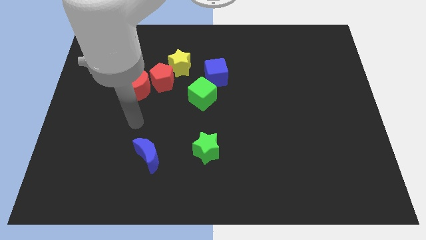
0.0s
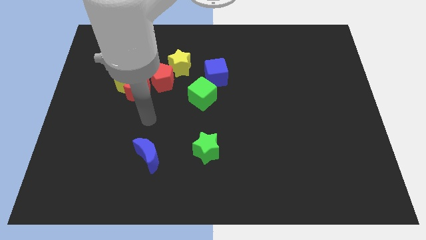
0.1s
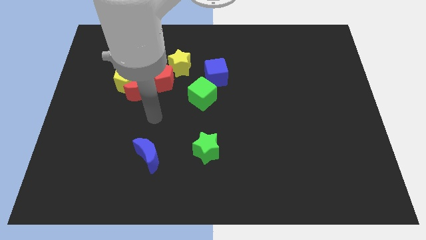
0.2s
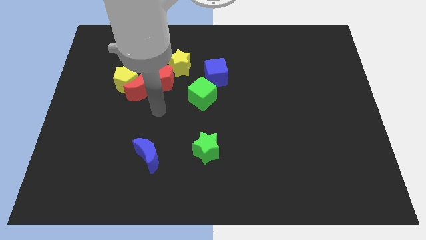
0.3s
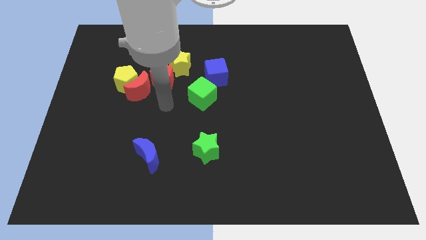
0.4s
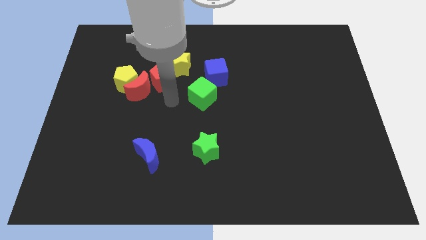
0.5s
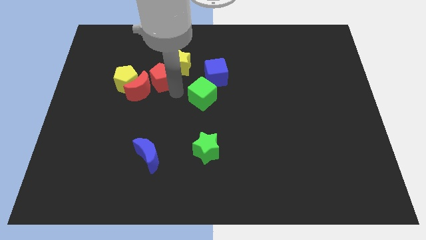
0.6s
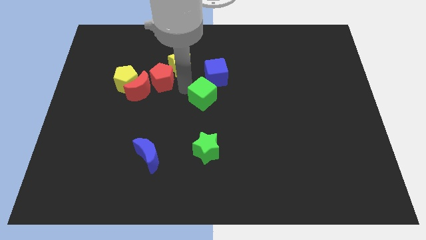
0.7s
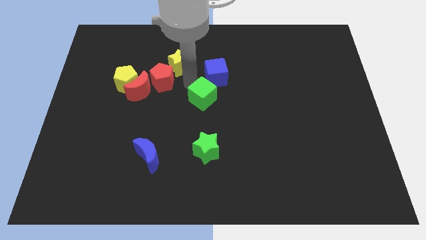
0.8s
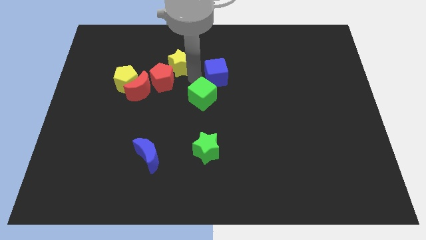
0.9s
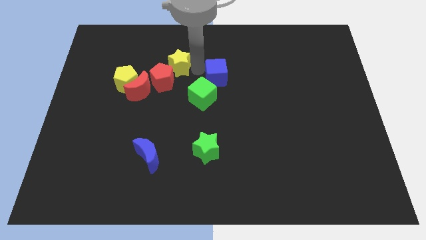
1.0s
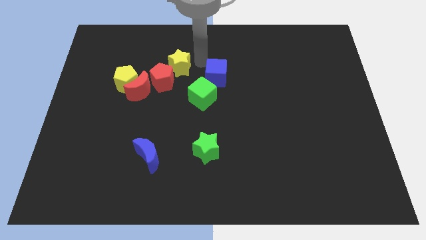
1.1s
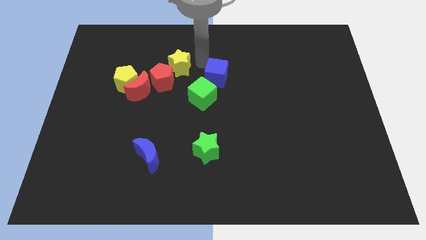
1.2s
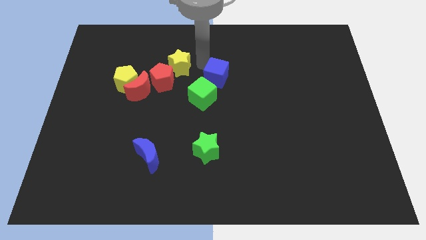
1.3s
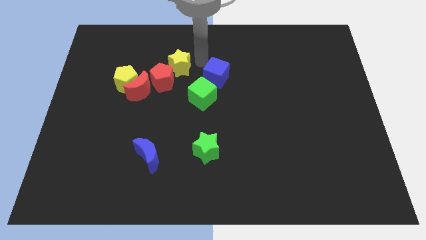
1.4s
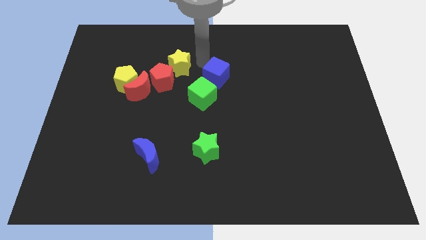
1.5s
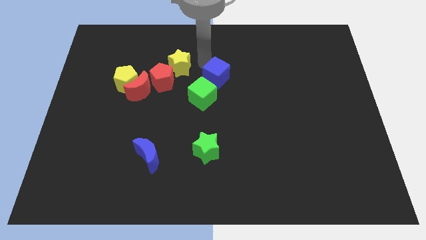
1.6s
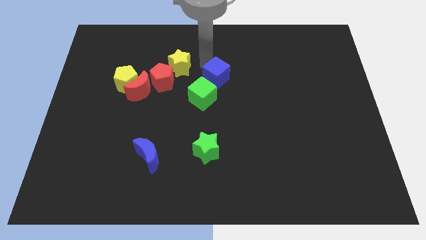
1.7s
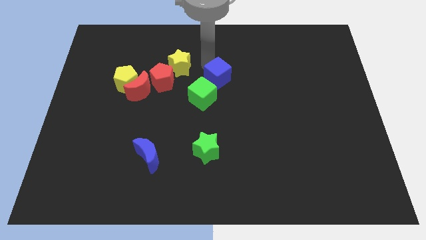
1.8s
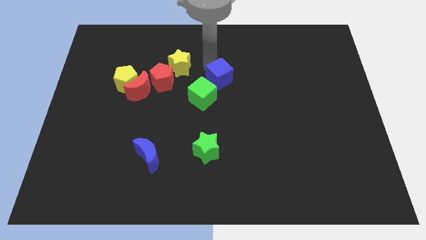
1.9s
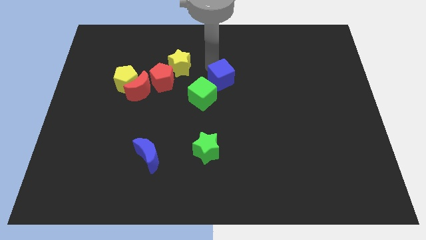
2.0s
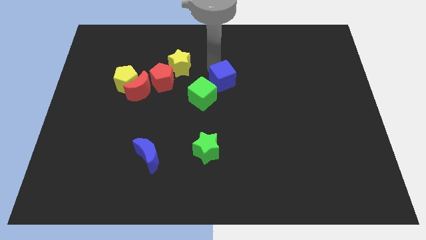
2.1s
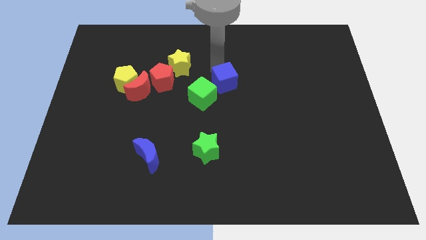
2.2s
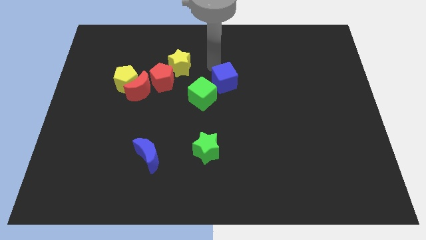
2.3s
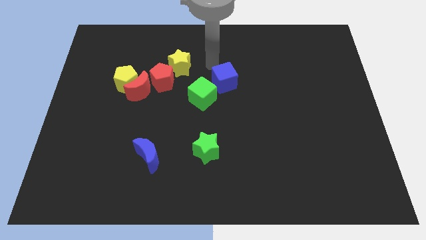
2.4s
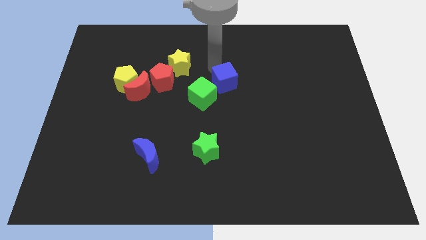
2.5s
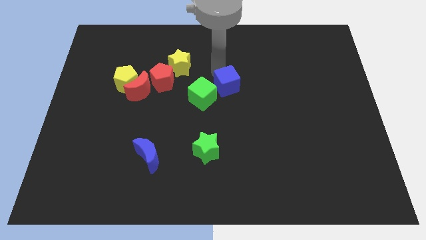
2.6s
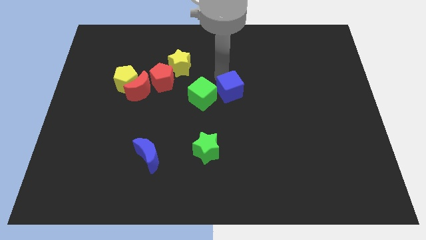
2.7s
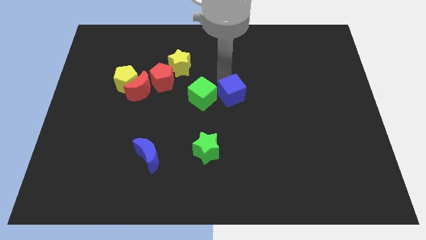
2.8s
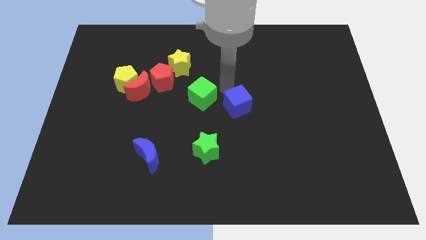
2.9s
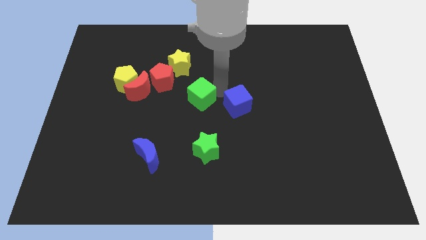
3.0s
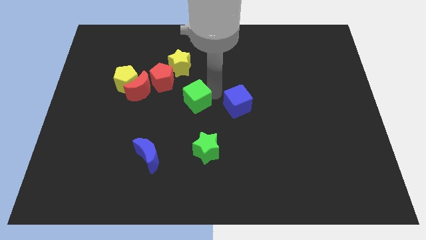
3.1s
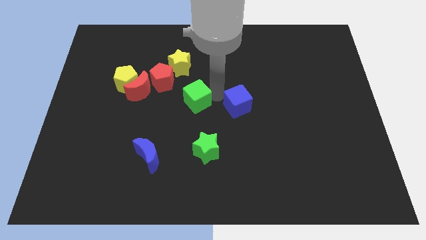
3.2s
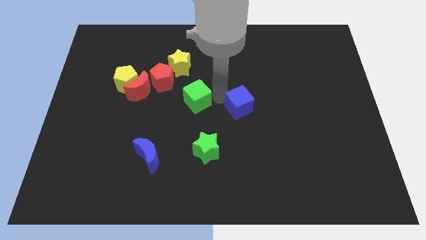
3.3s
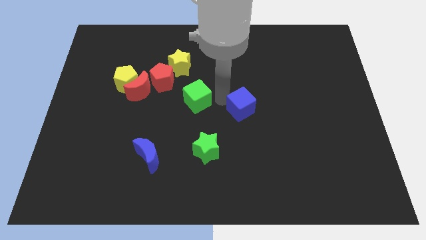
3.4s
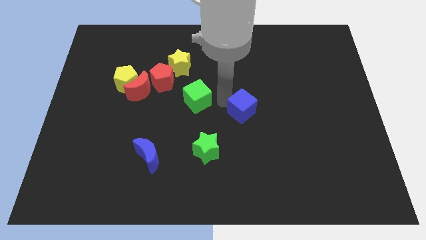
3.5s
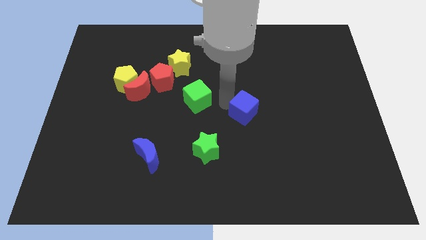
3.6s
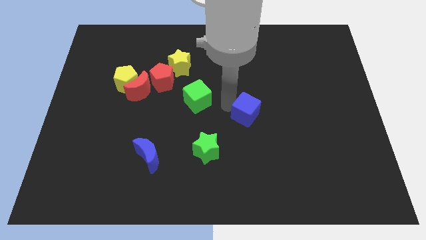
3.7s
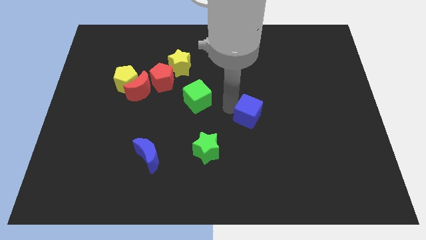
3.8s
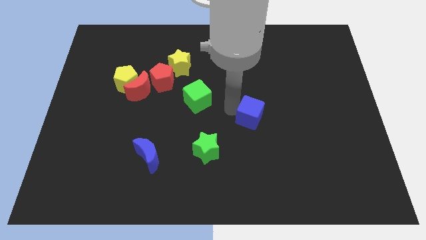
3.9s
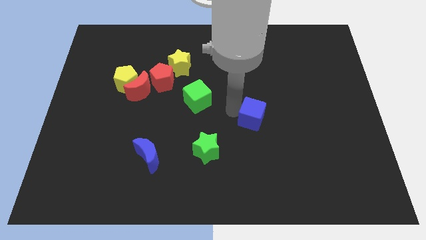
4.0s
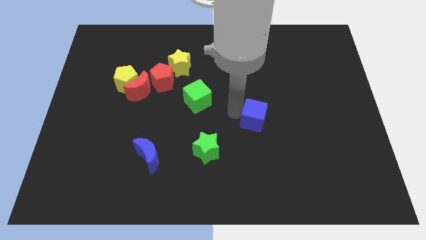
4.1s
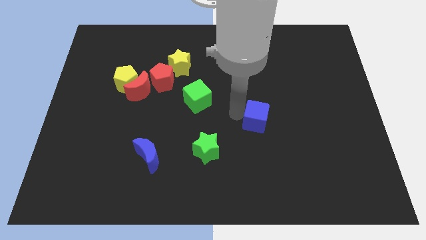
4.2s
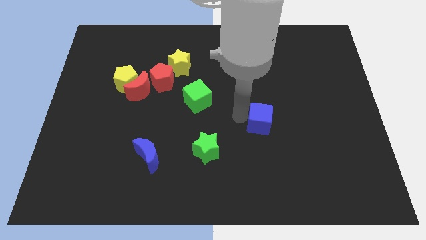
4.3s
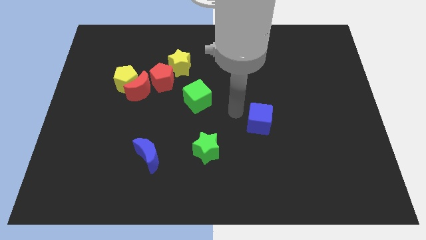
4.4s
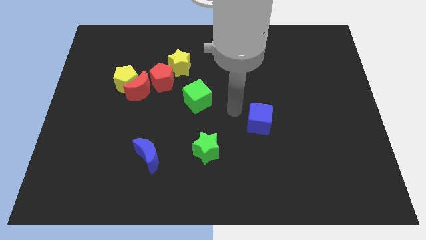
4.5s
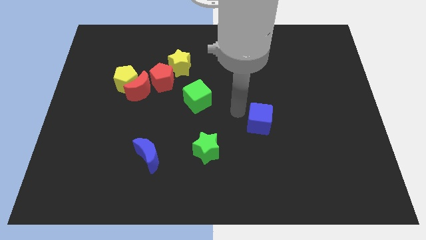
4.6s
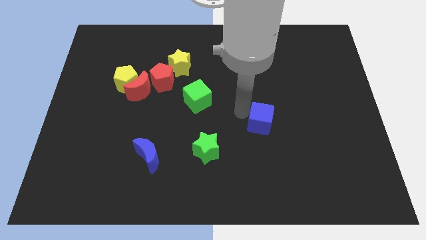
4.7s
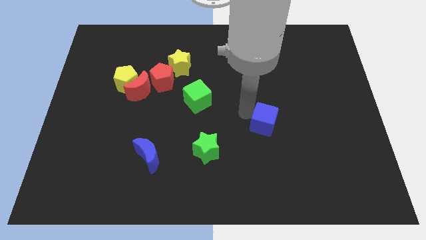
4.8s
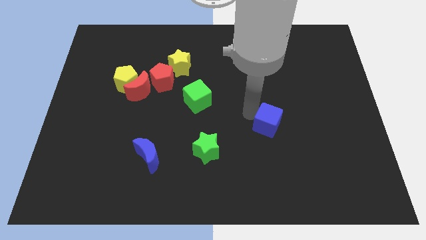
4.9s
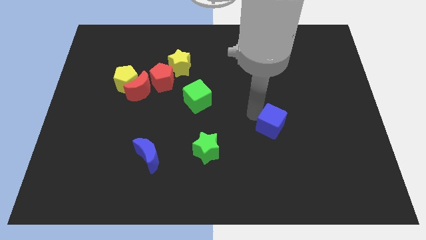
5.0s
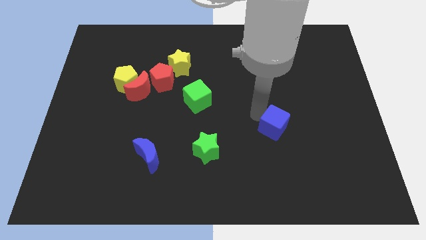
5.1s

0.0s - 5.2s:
move the blue cube downwards and then to the right

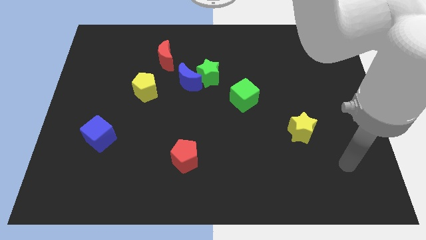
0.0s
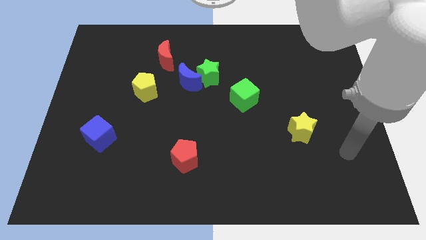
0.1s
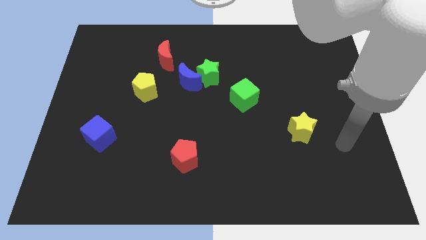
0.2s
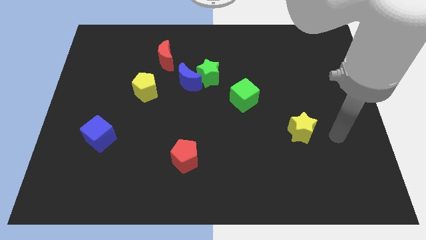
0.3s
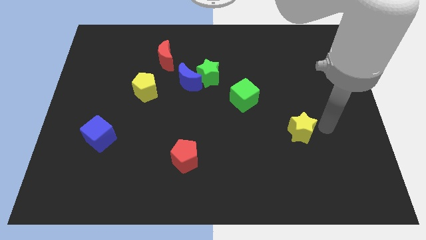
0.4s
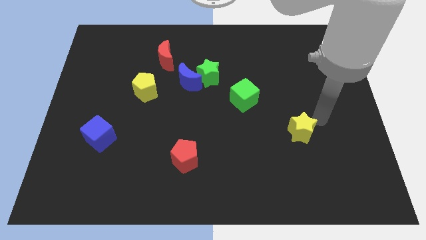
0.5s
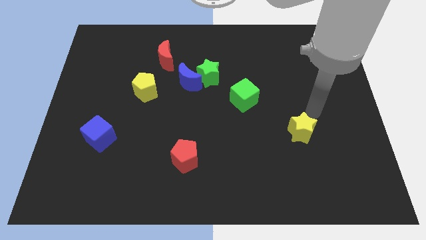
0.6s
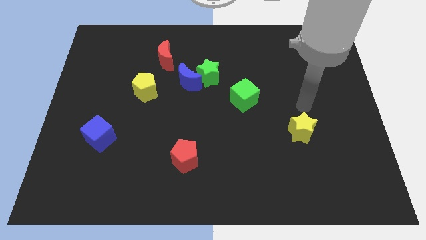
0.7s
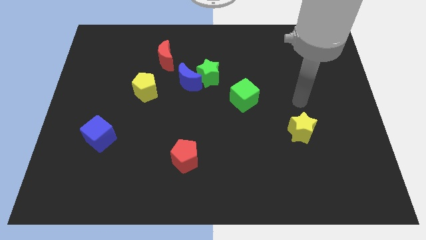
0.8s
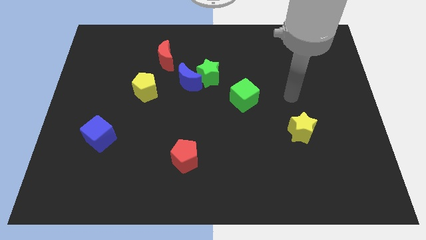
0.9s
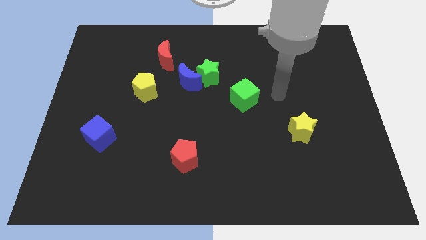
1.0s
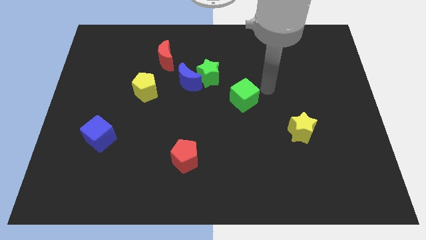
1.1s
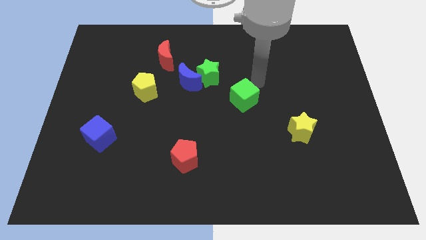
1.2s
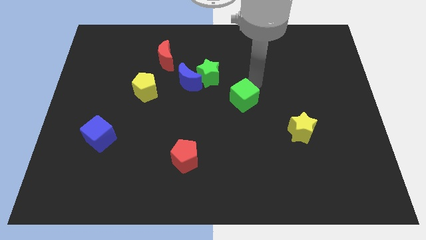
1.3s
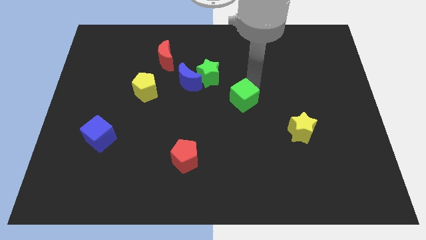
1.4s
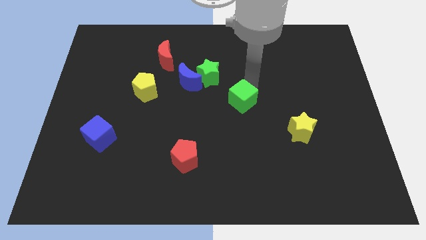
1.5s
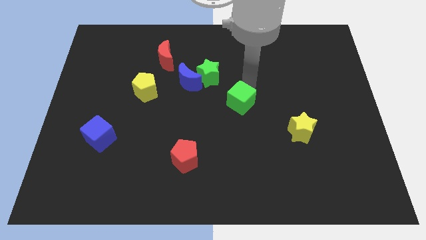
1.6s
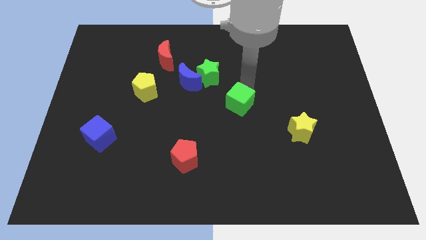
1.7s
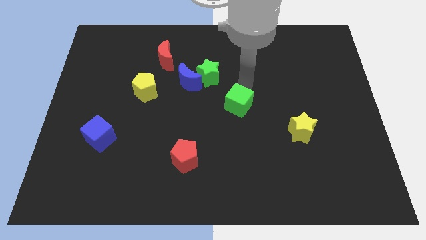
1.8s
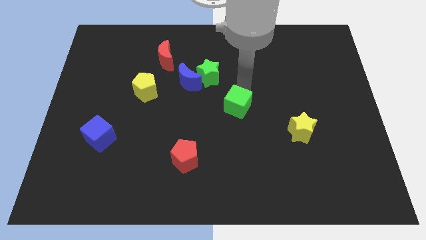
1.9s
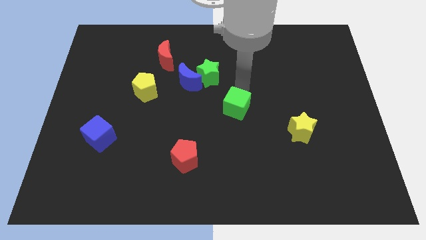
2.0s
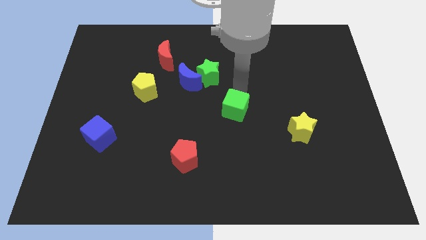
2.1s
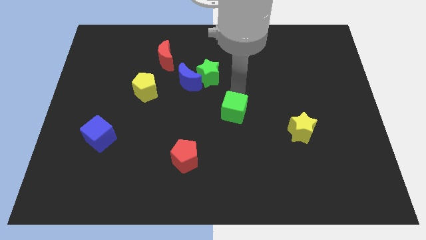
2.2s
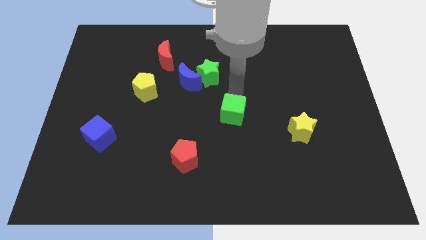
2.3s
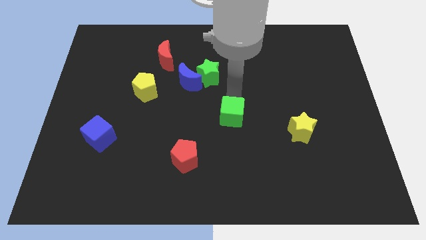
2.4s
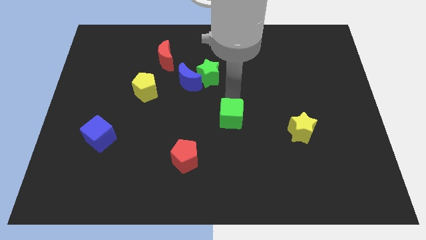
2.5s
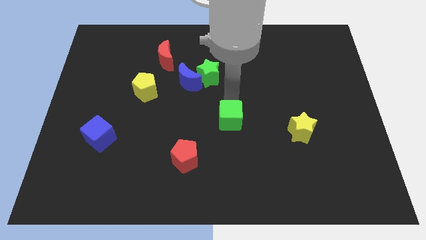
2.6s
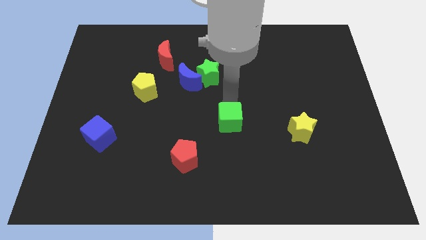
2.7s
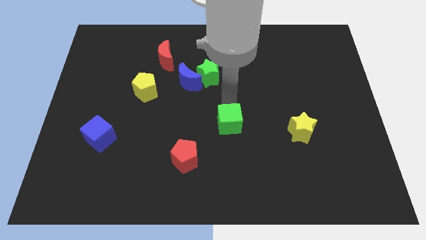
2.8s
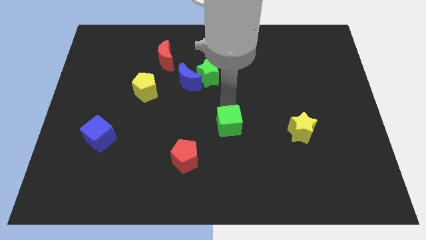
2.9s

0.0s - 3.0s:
push the green cube a little bit down
